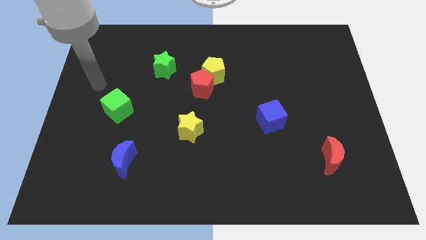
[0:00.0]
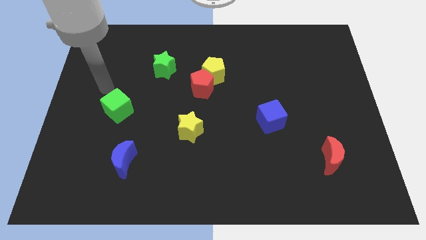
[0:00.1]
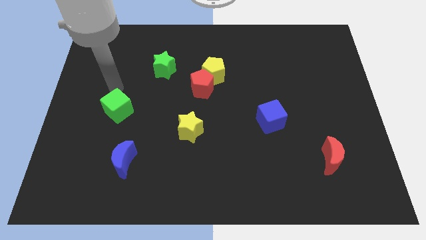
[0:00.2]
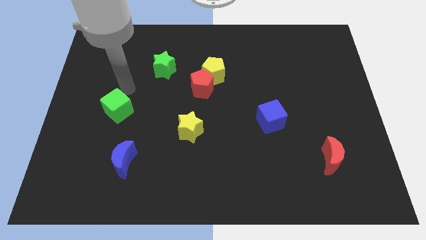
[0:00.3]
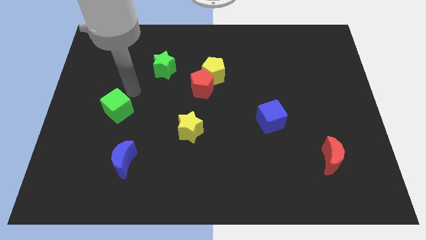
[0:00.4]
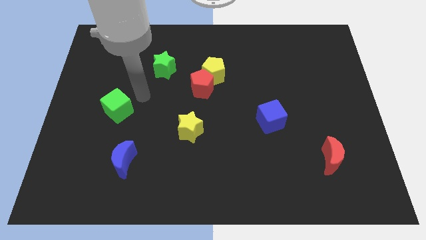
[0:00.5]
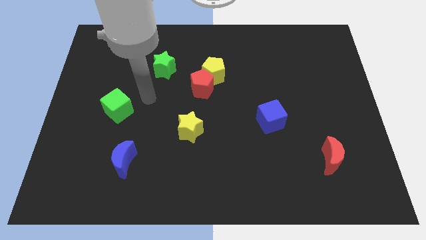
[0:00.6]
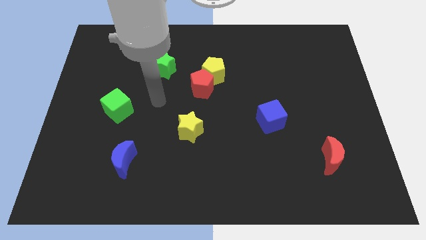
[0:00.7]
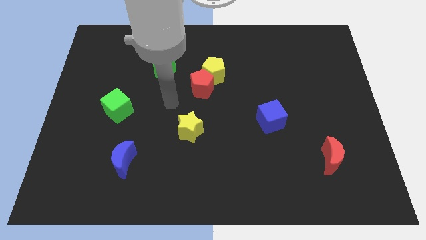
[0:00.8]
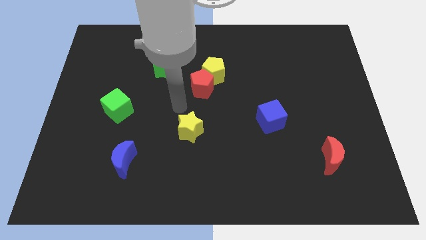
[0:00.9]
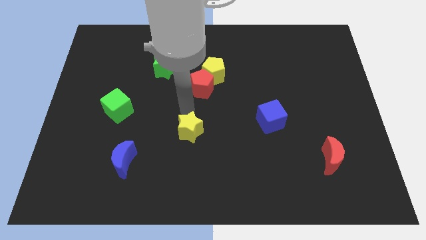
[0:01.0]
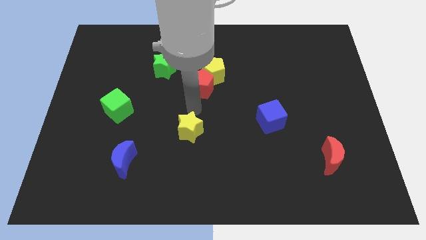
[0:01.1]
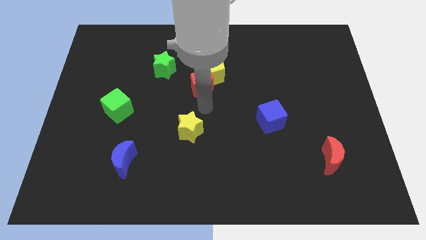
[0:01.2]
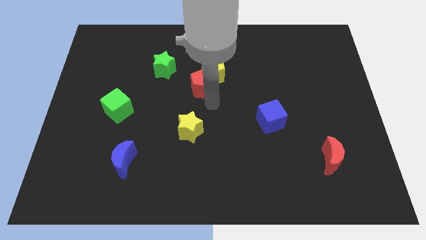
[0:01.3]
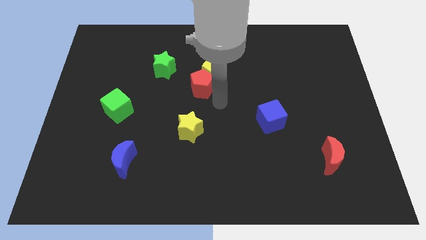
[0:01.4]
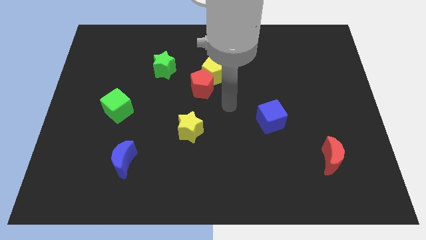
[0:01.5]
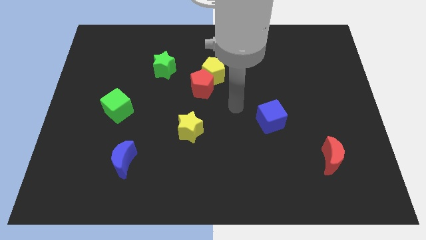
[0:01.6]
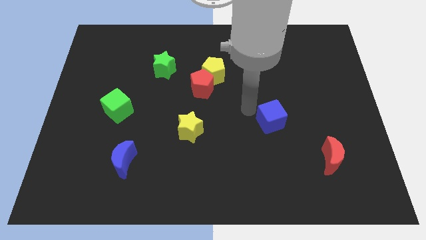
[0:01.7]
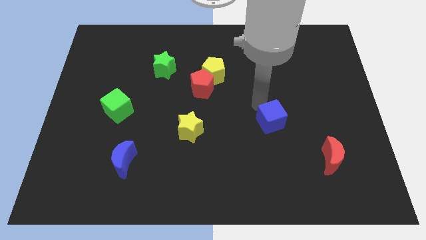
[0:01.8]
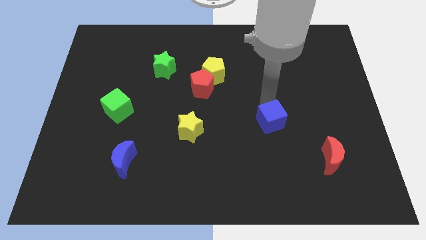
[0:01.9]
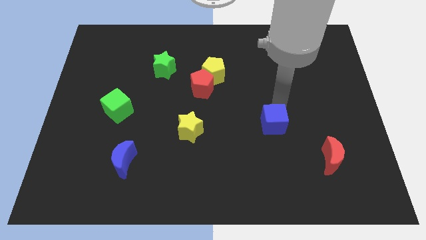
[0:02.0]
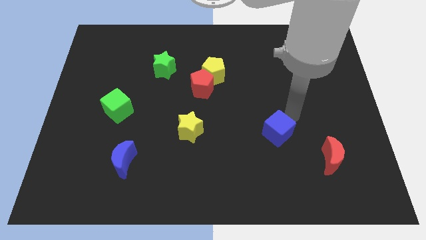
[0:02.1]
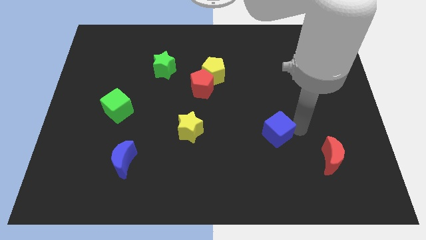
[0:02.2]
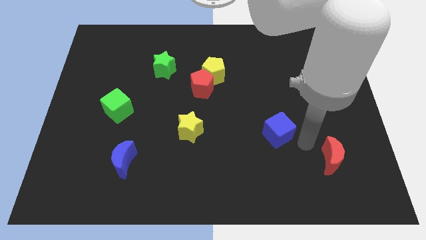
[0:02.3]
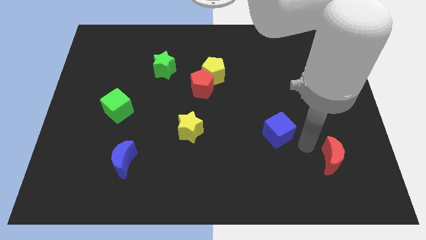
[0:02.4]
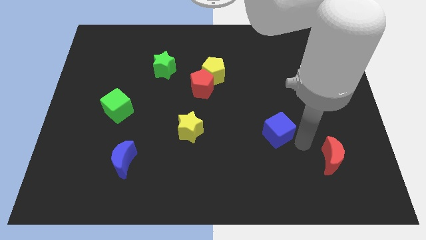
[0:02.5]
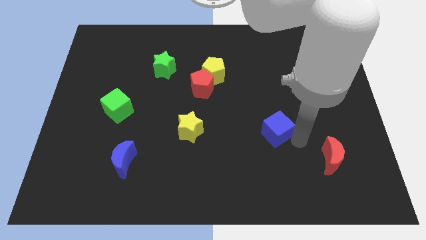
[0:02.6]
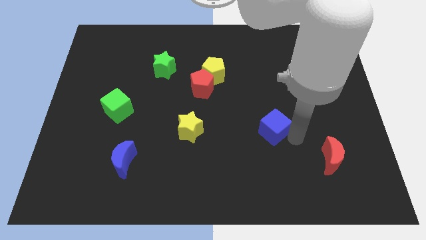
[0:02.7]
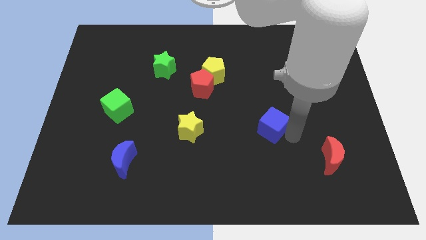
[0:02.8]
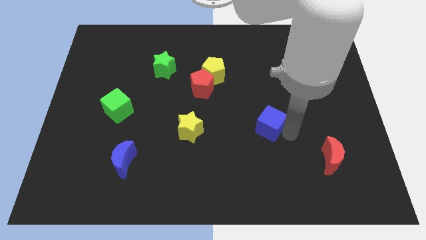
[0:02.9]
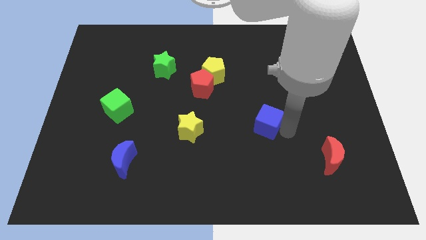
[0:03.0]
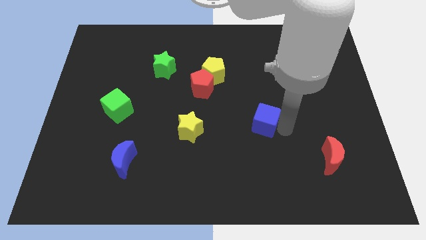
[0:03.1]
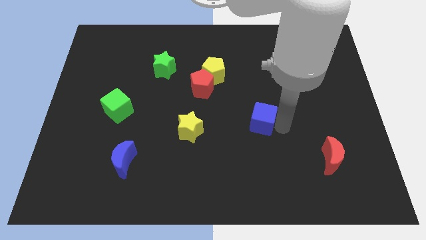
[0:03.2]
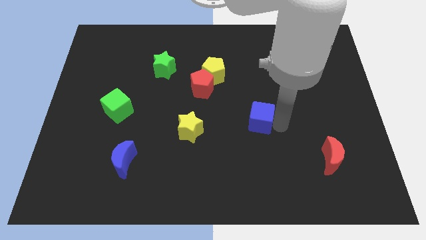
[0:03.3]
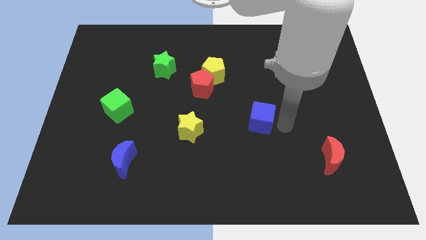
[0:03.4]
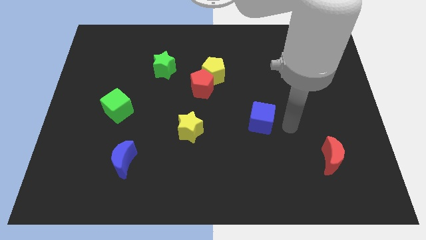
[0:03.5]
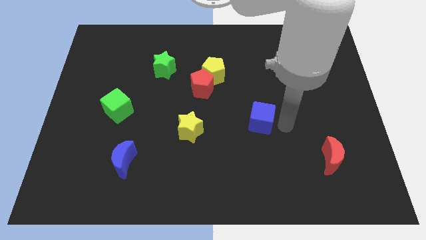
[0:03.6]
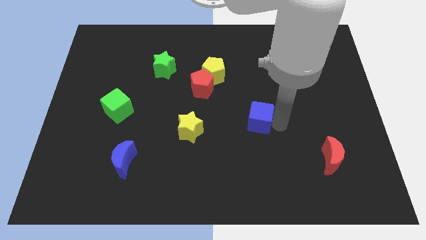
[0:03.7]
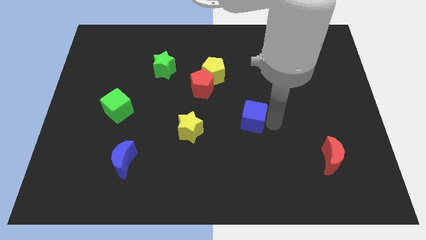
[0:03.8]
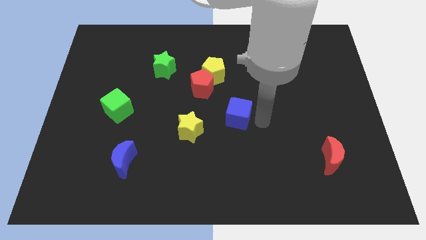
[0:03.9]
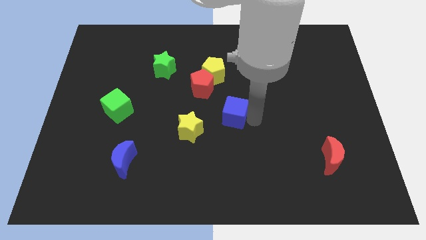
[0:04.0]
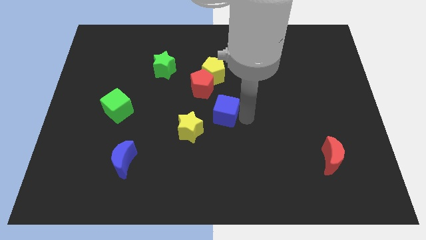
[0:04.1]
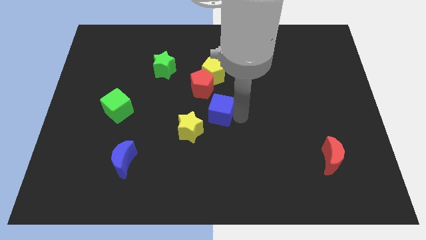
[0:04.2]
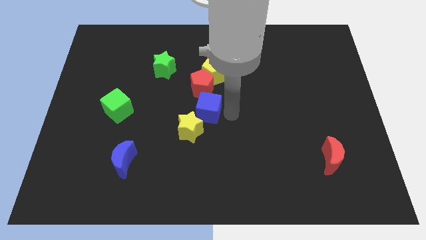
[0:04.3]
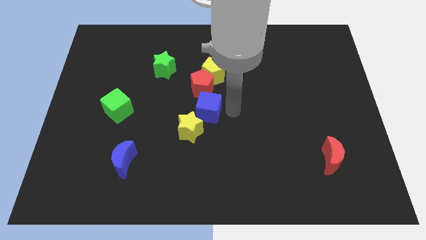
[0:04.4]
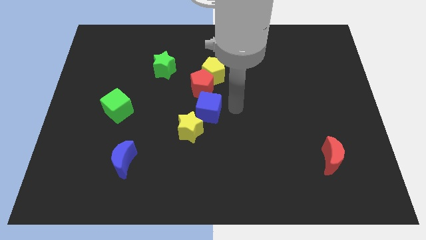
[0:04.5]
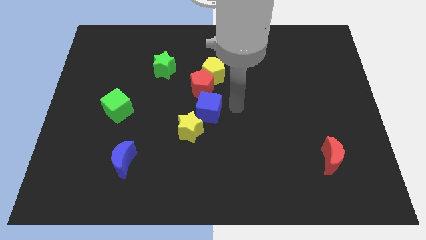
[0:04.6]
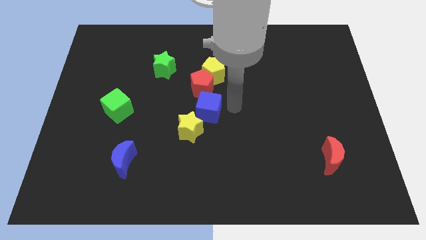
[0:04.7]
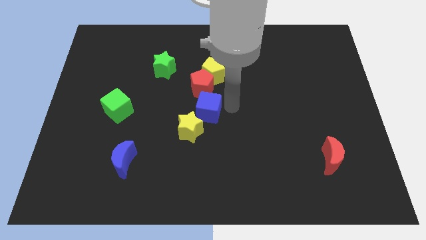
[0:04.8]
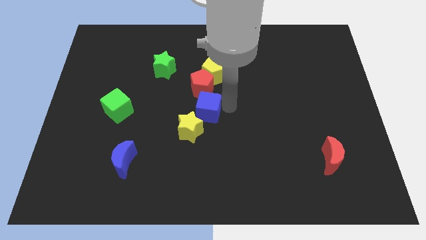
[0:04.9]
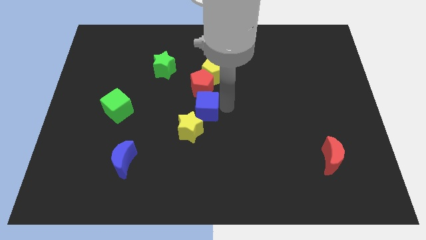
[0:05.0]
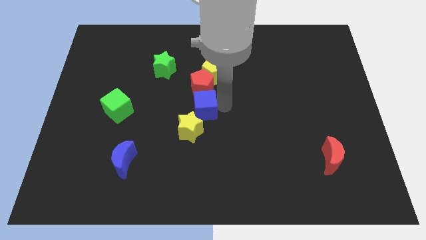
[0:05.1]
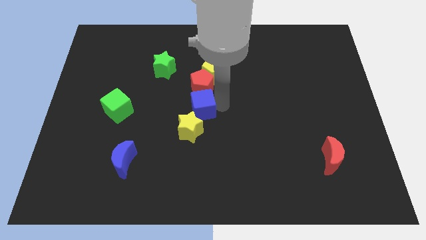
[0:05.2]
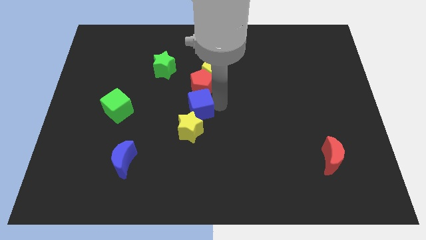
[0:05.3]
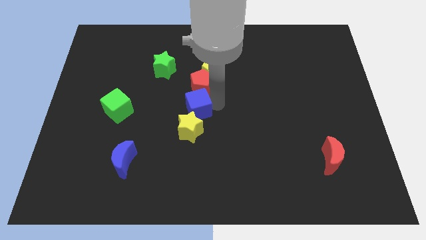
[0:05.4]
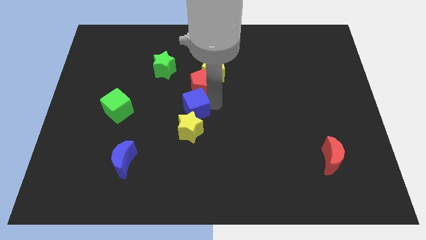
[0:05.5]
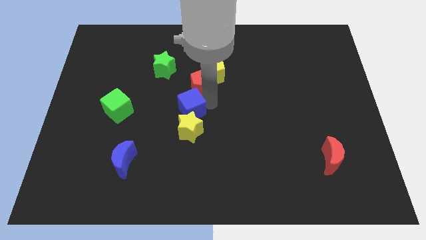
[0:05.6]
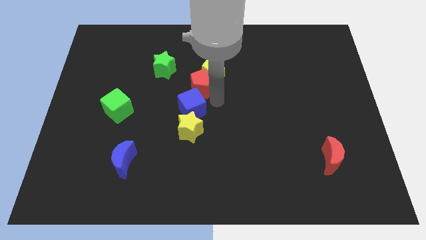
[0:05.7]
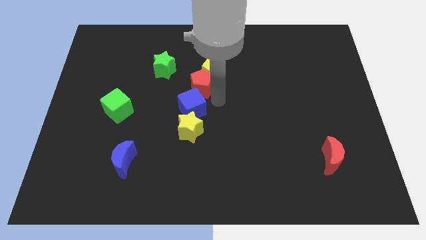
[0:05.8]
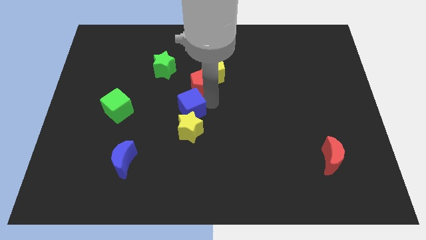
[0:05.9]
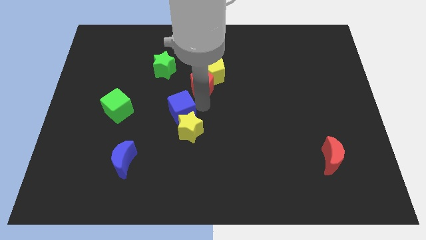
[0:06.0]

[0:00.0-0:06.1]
move the blue cube to the left

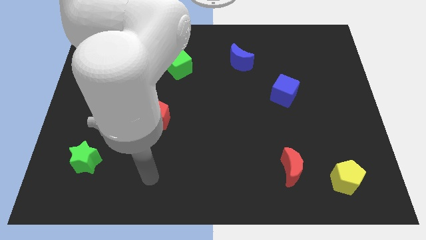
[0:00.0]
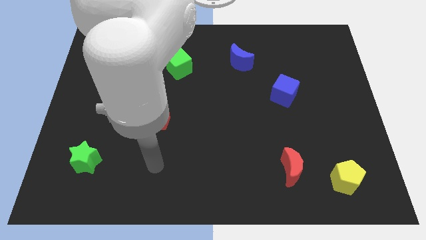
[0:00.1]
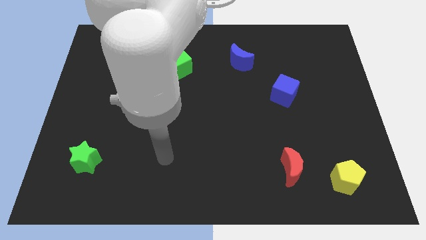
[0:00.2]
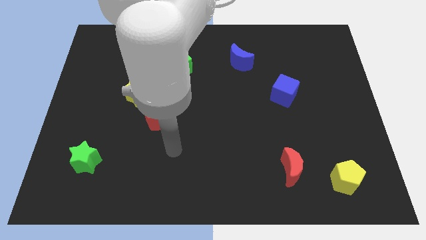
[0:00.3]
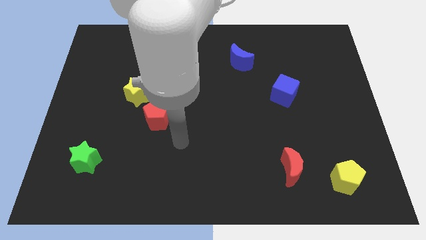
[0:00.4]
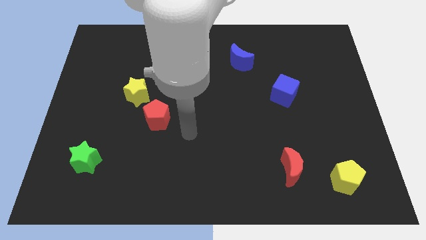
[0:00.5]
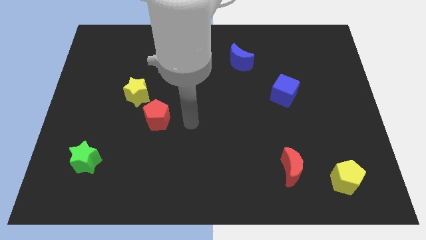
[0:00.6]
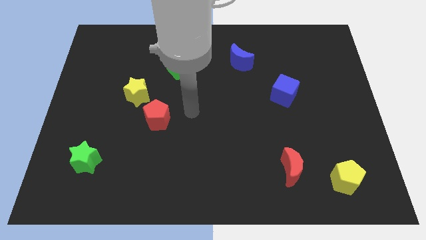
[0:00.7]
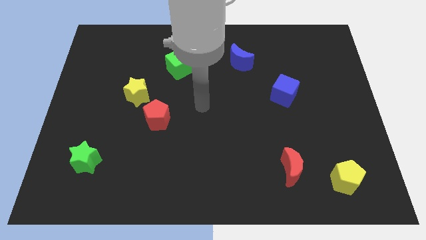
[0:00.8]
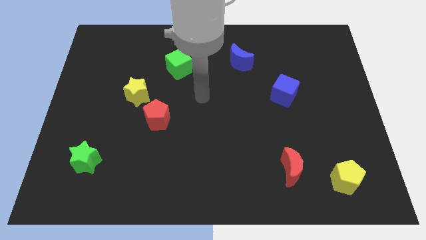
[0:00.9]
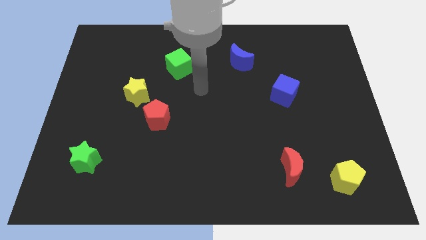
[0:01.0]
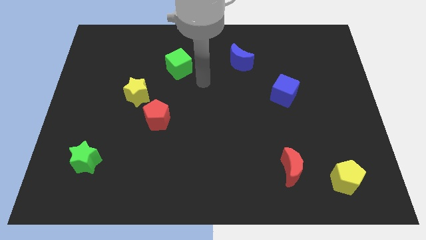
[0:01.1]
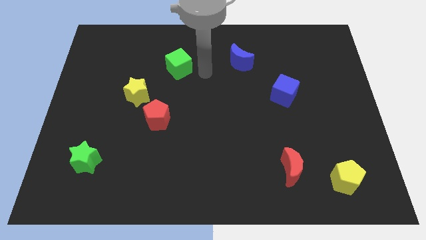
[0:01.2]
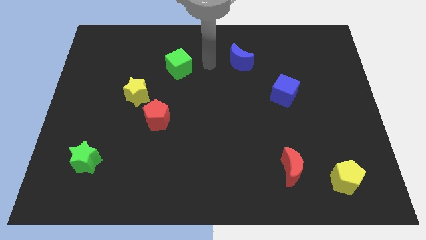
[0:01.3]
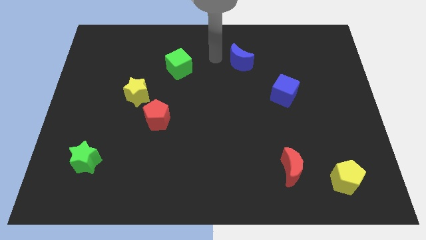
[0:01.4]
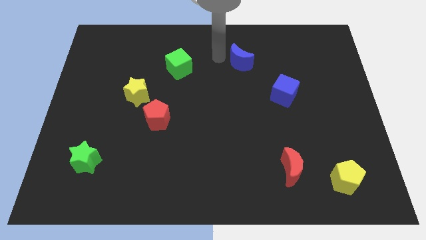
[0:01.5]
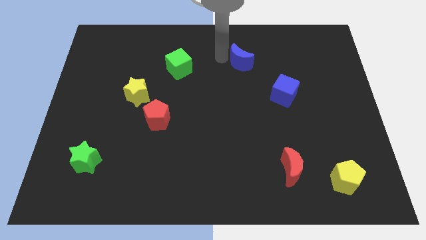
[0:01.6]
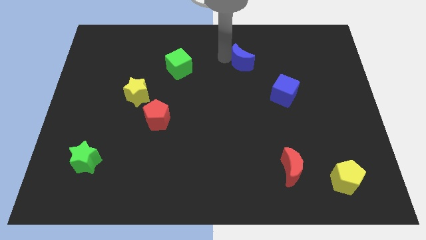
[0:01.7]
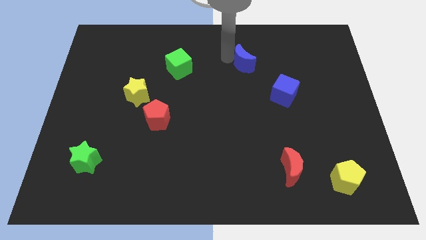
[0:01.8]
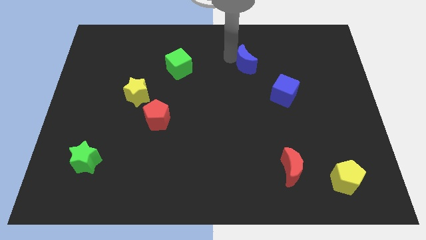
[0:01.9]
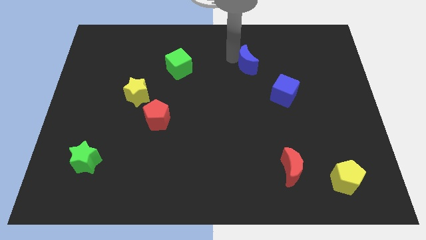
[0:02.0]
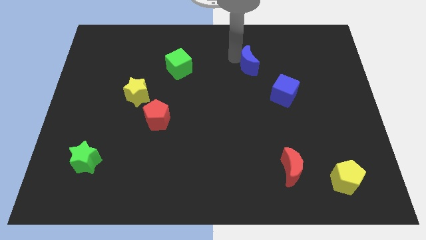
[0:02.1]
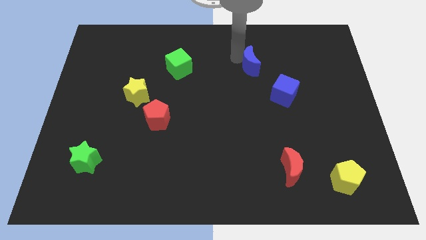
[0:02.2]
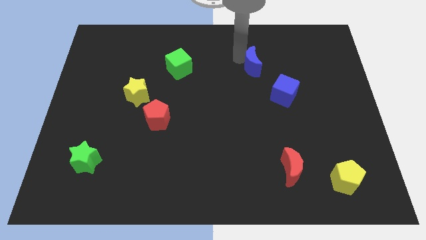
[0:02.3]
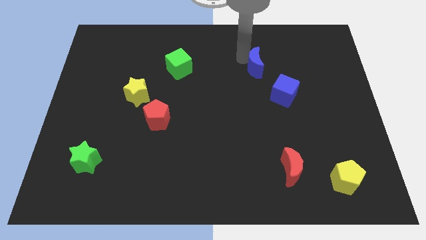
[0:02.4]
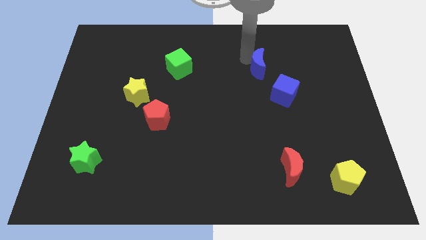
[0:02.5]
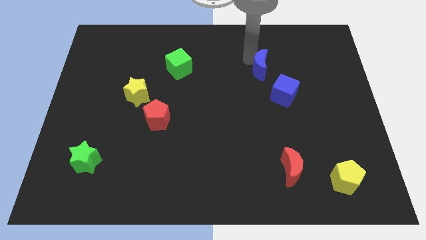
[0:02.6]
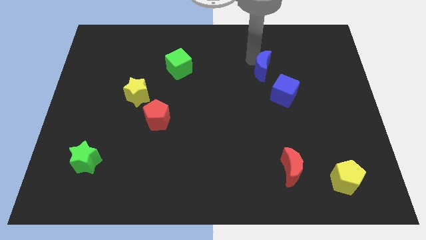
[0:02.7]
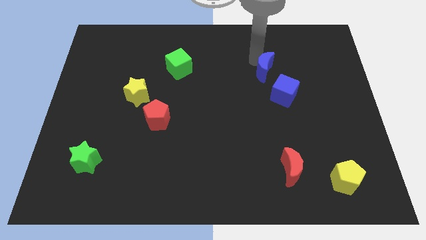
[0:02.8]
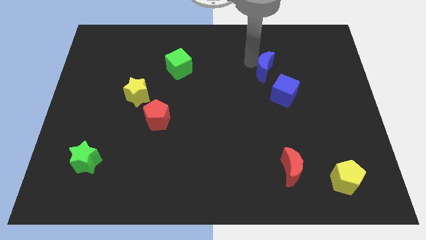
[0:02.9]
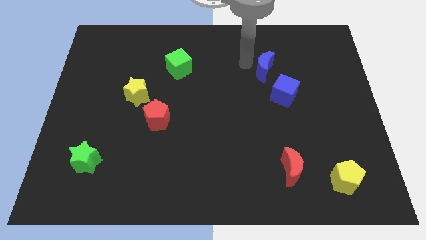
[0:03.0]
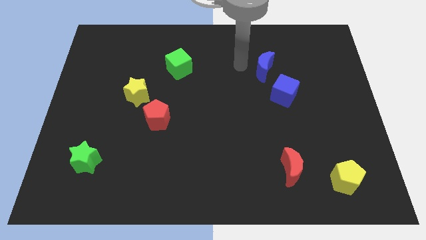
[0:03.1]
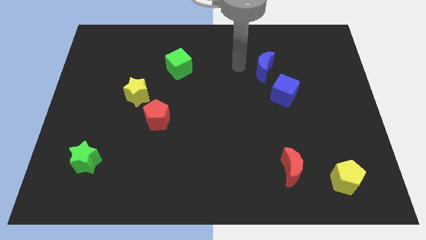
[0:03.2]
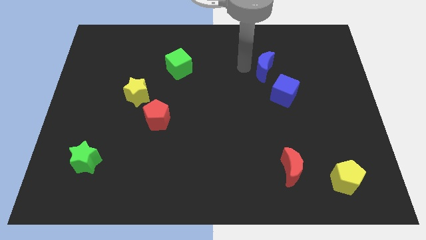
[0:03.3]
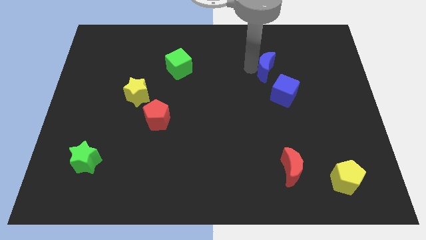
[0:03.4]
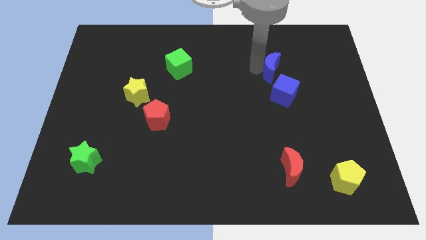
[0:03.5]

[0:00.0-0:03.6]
push the blue moon downwards and right diagonally a bit
